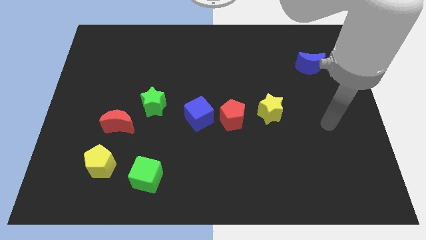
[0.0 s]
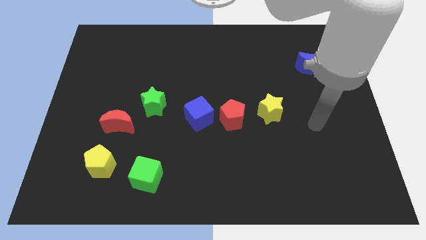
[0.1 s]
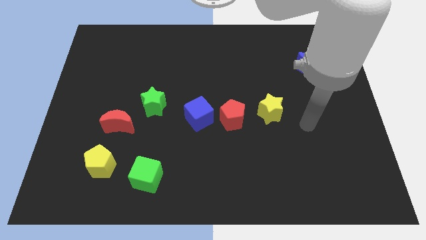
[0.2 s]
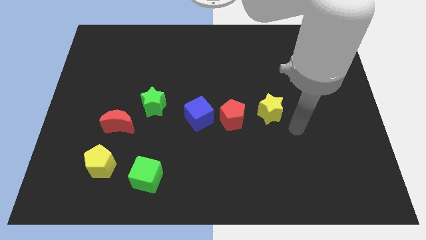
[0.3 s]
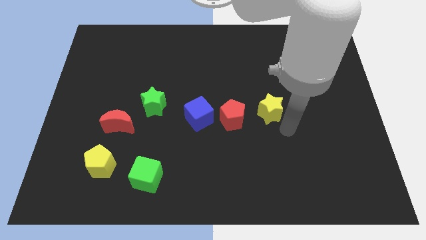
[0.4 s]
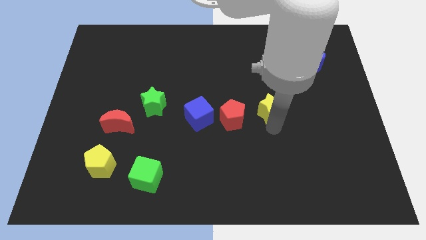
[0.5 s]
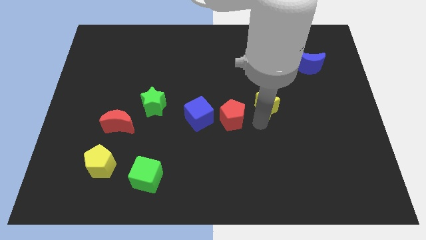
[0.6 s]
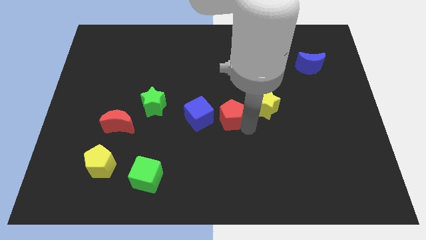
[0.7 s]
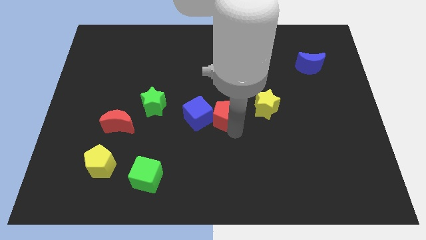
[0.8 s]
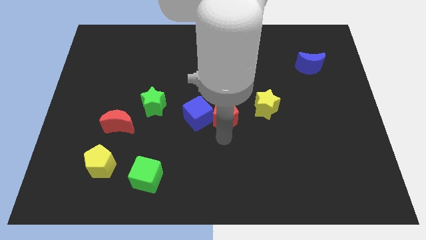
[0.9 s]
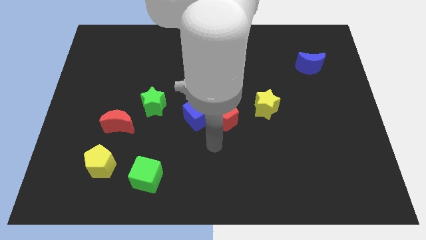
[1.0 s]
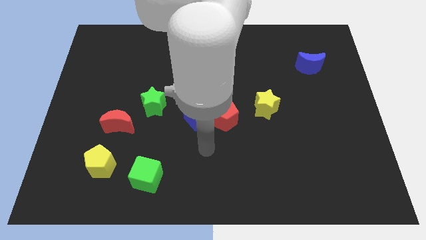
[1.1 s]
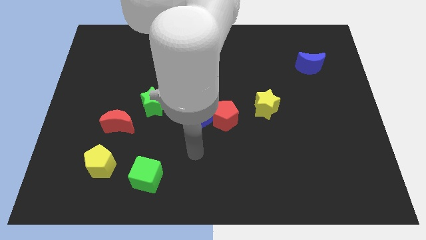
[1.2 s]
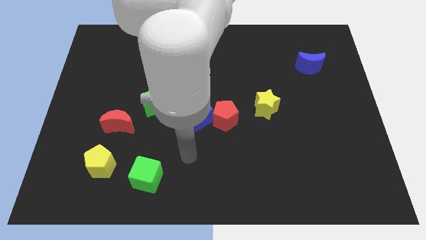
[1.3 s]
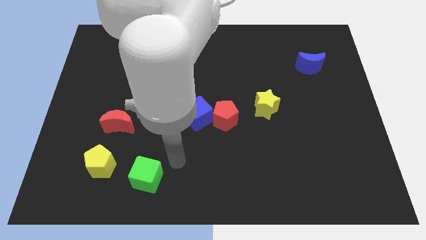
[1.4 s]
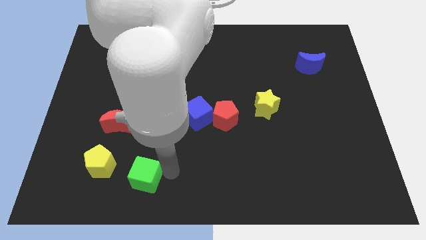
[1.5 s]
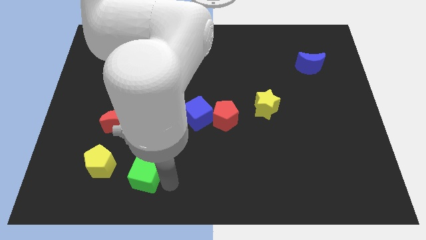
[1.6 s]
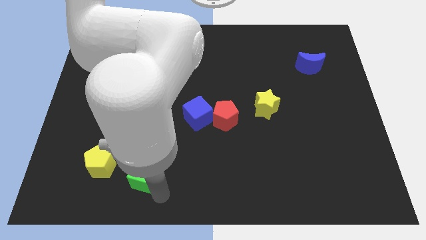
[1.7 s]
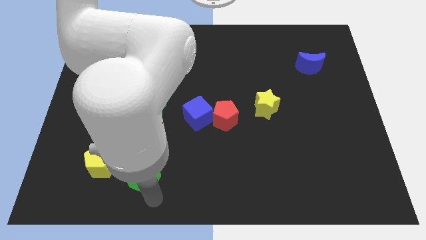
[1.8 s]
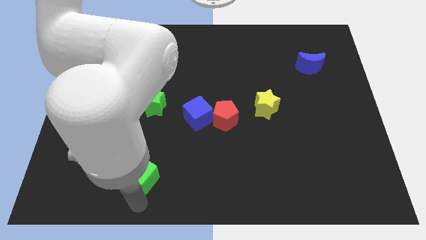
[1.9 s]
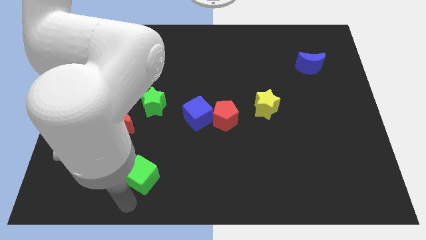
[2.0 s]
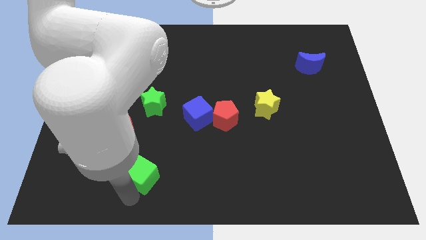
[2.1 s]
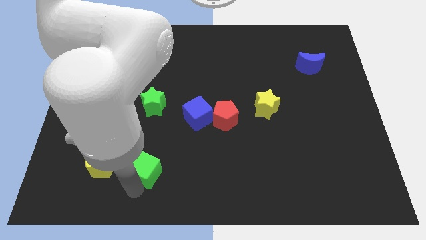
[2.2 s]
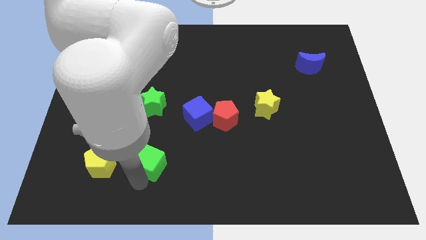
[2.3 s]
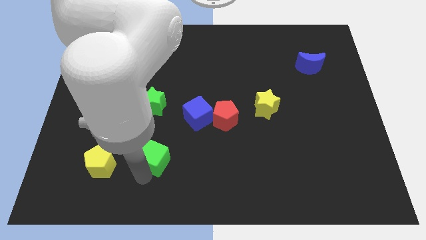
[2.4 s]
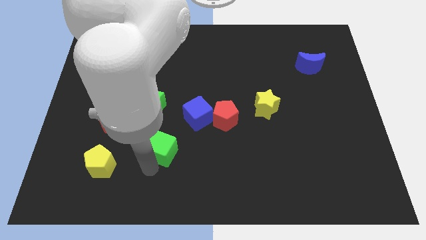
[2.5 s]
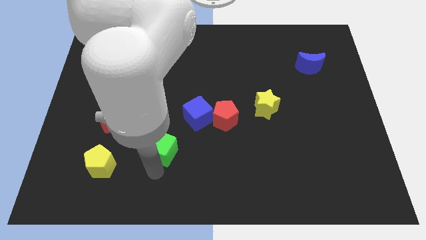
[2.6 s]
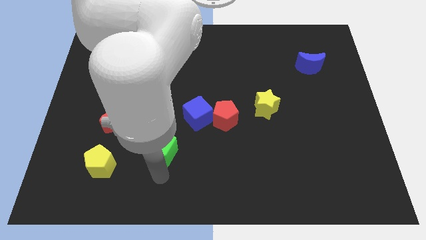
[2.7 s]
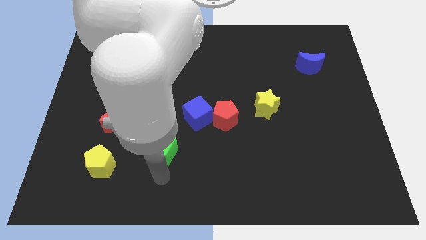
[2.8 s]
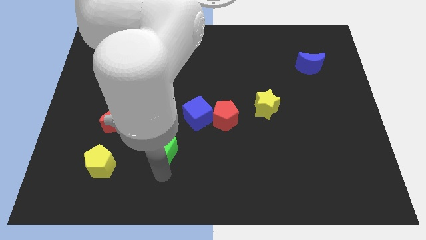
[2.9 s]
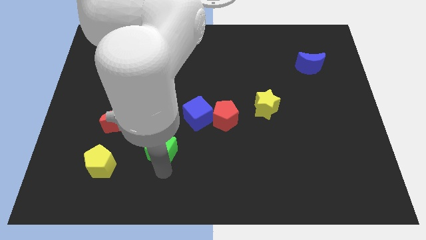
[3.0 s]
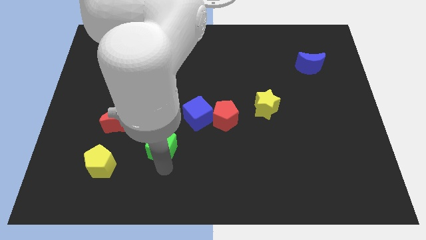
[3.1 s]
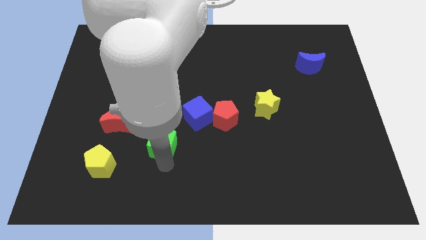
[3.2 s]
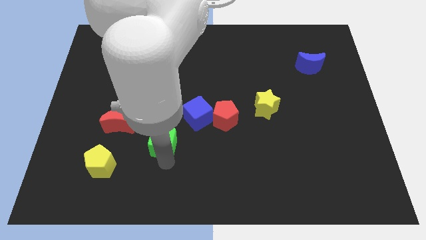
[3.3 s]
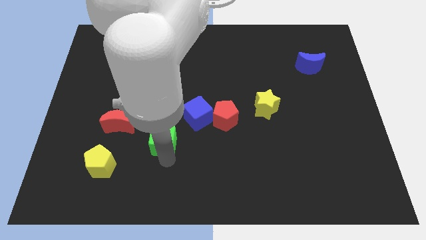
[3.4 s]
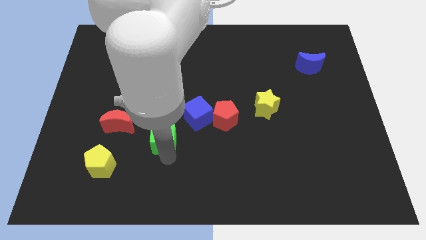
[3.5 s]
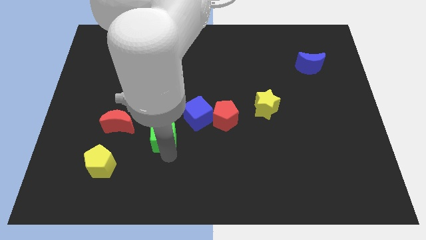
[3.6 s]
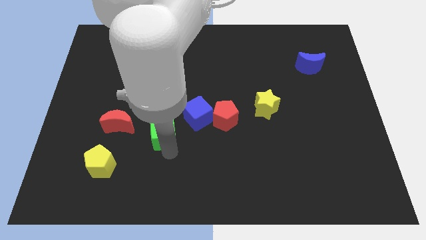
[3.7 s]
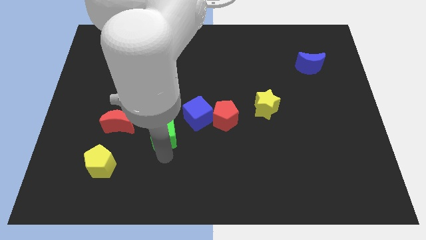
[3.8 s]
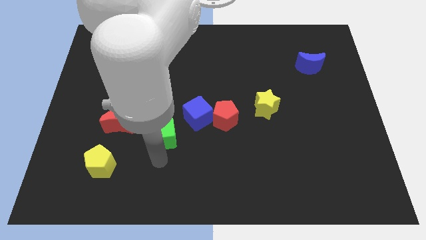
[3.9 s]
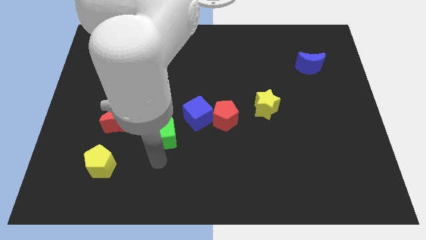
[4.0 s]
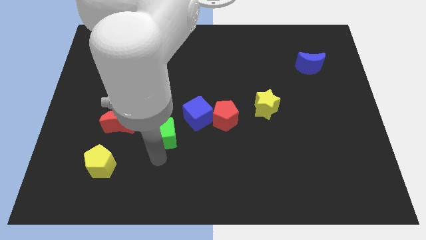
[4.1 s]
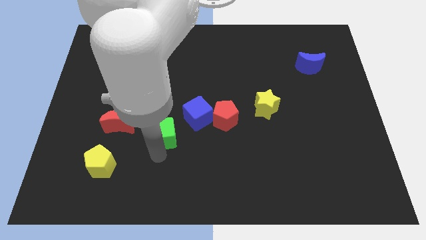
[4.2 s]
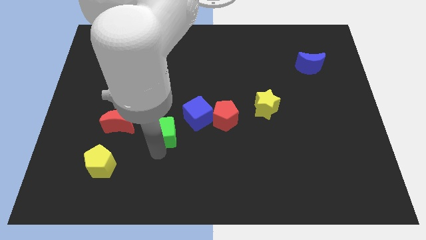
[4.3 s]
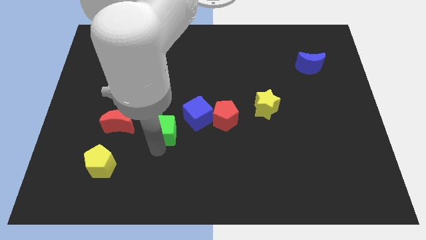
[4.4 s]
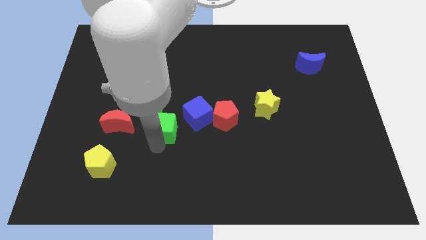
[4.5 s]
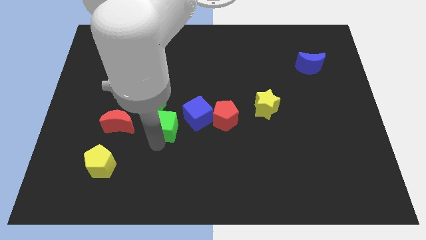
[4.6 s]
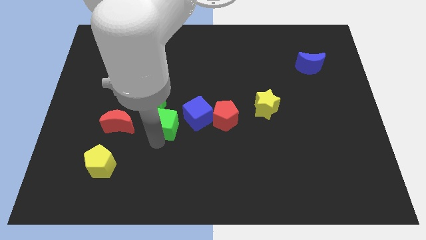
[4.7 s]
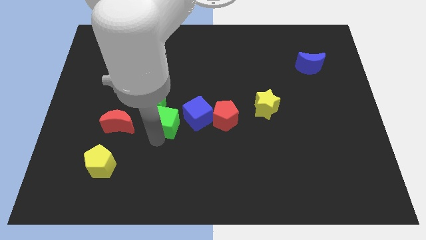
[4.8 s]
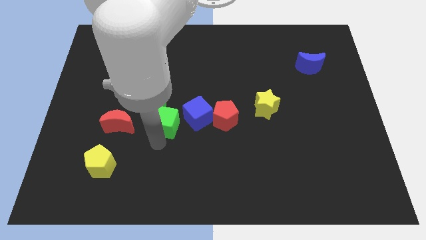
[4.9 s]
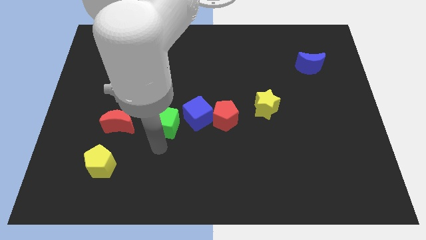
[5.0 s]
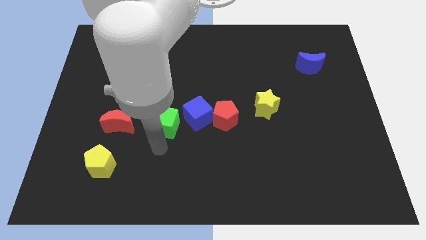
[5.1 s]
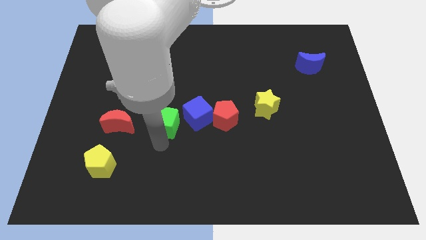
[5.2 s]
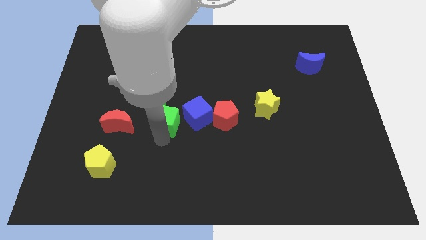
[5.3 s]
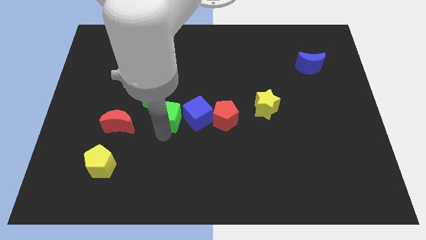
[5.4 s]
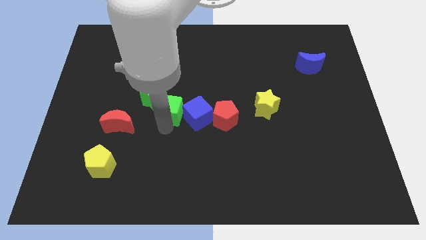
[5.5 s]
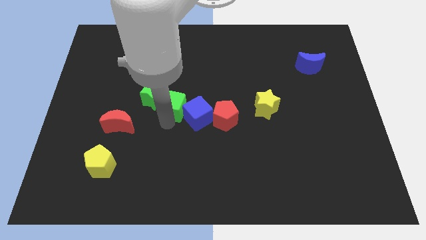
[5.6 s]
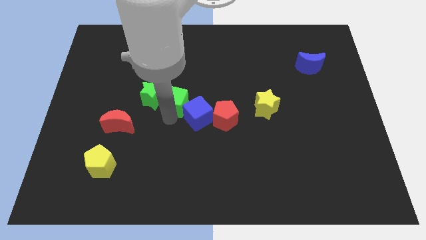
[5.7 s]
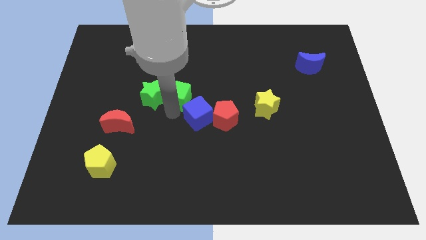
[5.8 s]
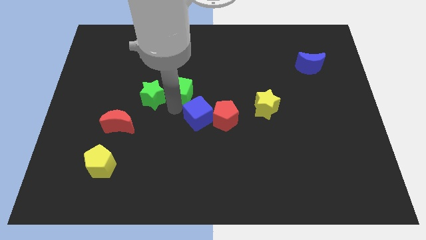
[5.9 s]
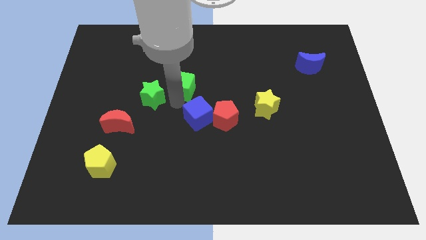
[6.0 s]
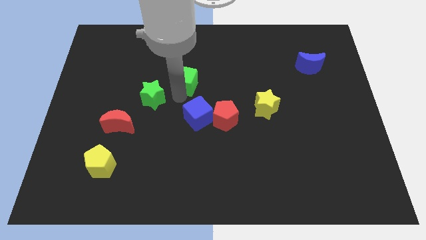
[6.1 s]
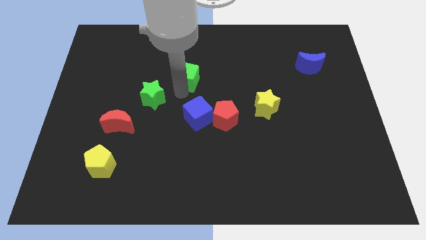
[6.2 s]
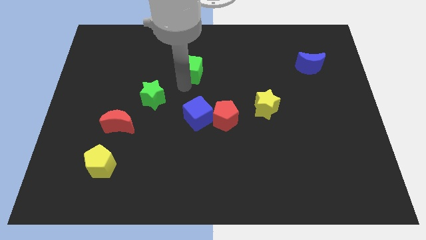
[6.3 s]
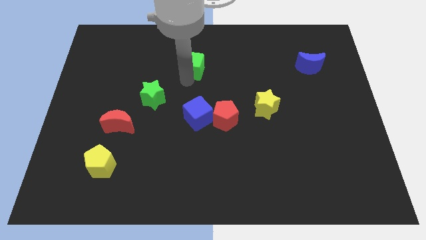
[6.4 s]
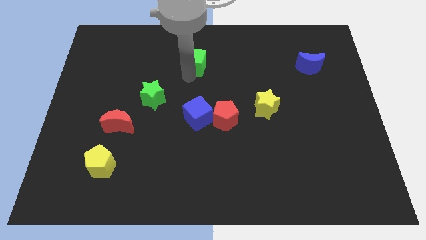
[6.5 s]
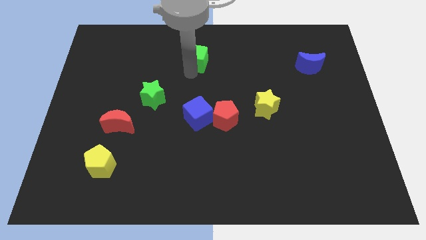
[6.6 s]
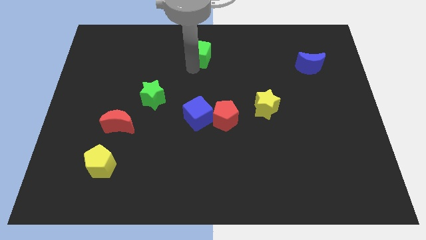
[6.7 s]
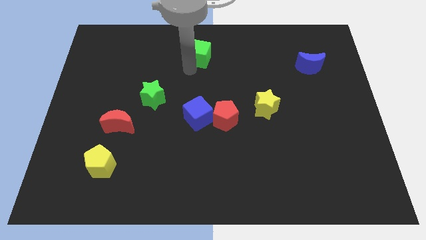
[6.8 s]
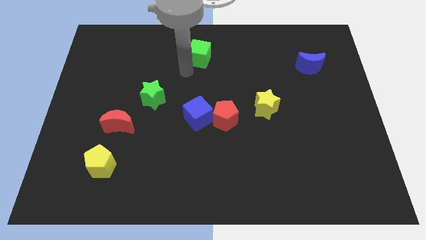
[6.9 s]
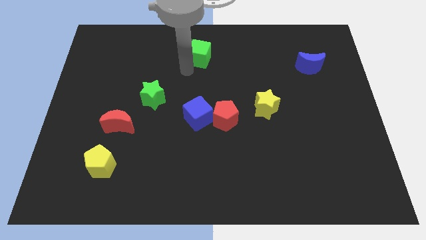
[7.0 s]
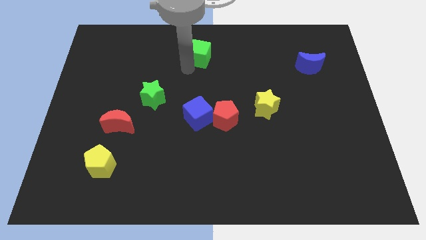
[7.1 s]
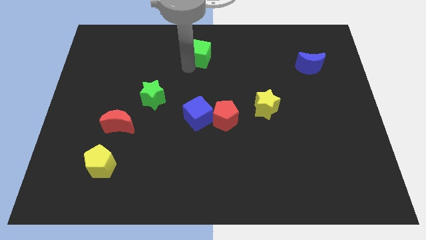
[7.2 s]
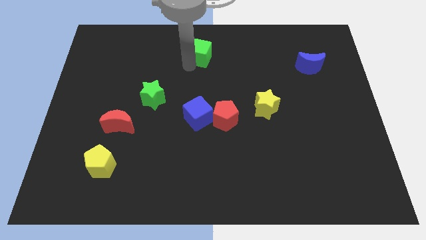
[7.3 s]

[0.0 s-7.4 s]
put the green cube to the towards your base
